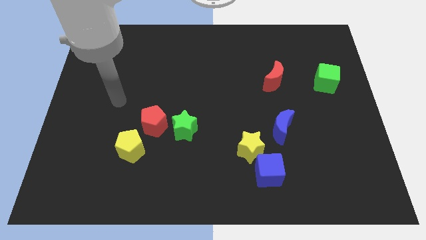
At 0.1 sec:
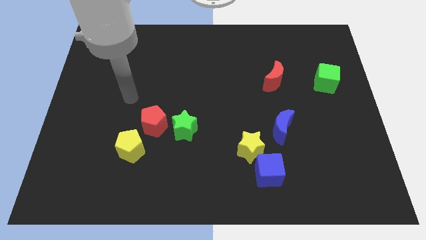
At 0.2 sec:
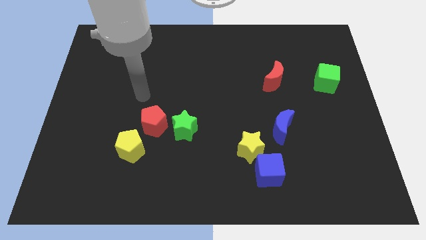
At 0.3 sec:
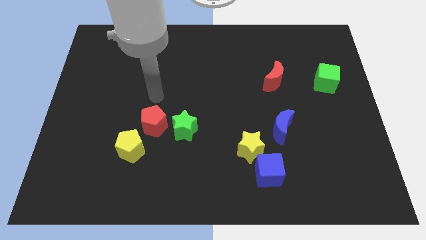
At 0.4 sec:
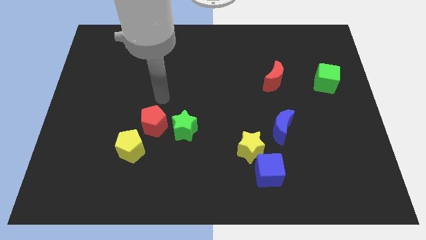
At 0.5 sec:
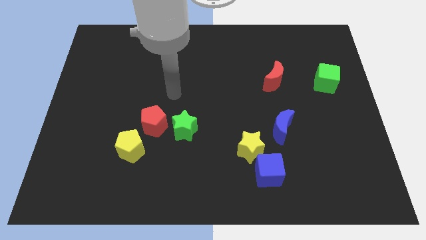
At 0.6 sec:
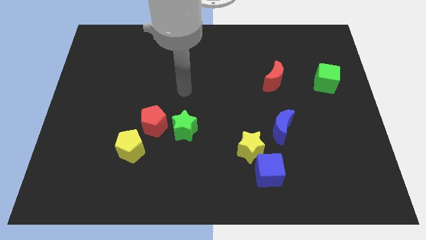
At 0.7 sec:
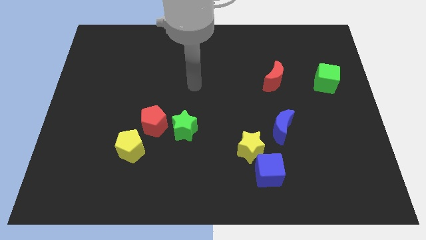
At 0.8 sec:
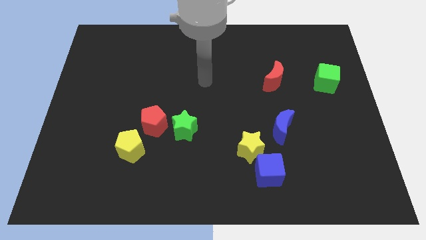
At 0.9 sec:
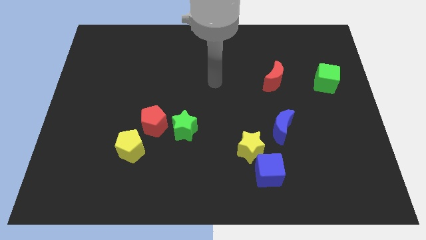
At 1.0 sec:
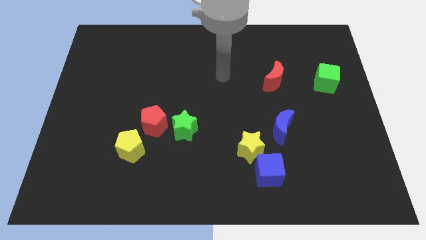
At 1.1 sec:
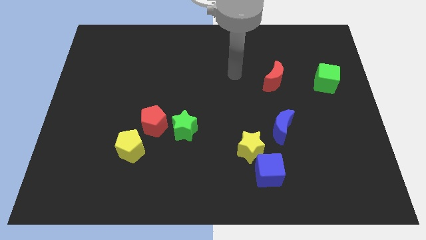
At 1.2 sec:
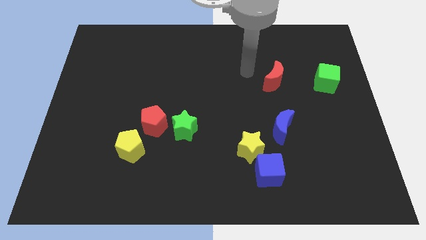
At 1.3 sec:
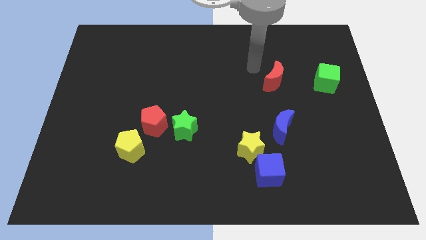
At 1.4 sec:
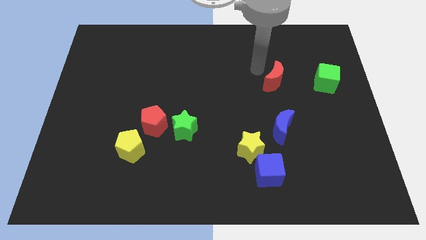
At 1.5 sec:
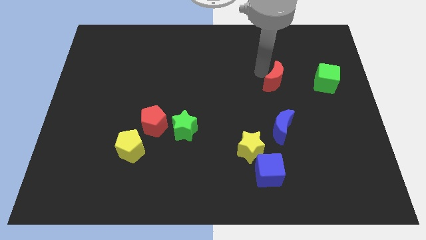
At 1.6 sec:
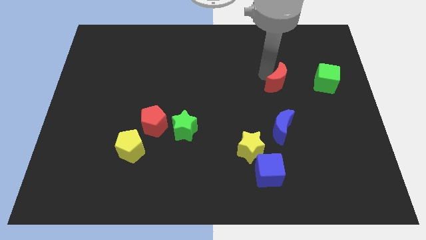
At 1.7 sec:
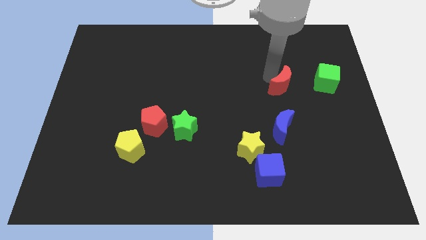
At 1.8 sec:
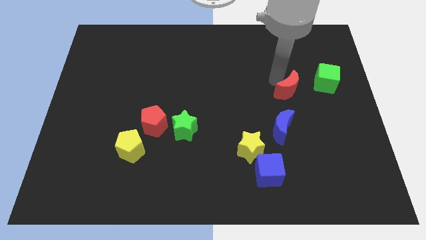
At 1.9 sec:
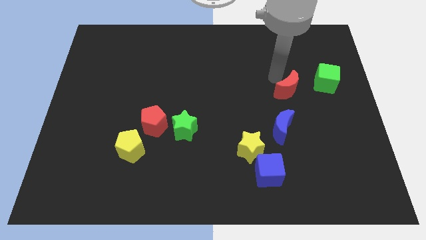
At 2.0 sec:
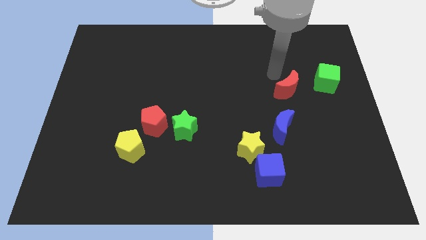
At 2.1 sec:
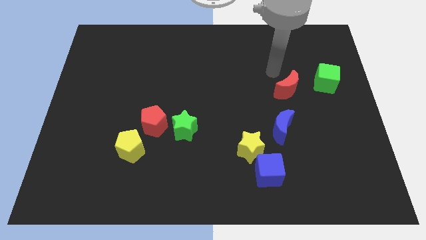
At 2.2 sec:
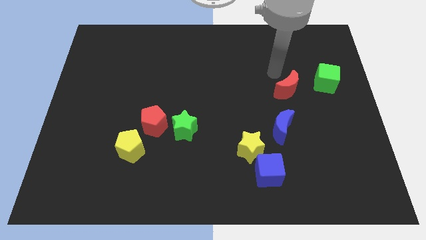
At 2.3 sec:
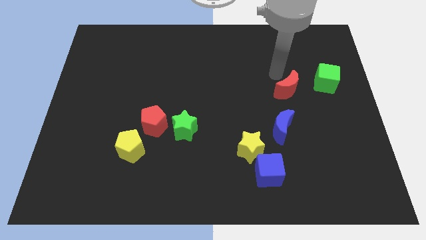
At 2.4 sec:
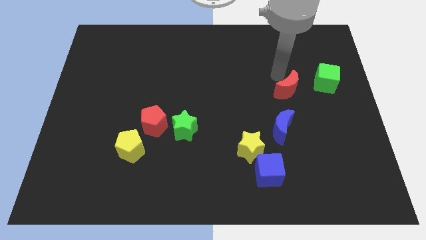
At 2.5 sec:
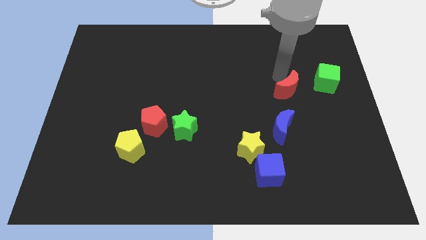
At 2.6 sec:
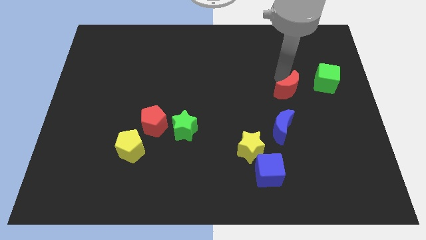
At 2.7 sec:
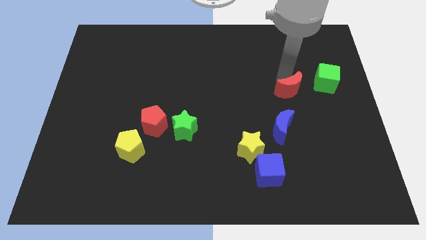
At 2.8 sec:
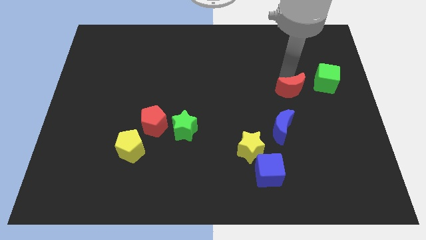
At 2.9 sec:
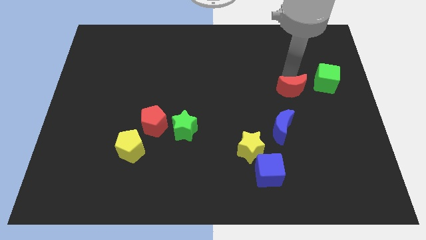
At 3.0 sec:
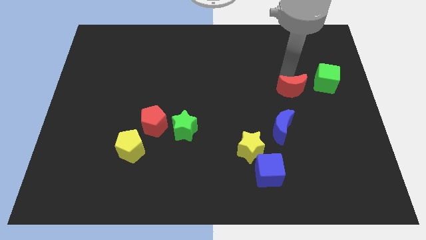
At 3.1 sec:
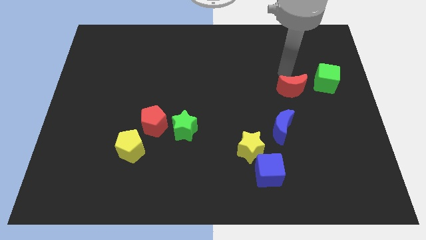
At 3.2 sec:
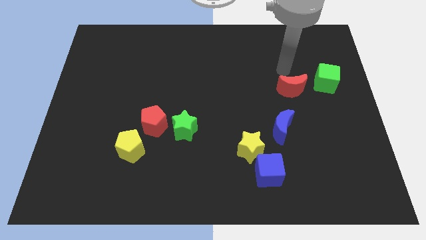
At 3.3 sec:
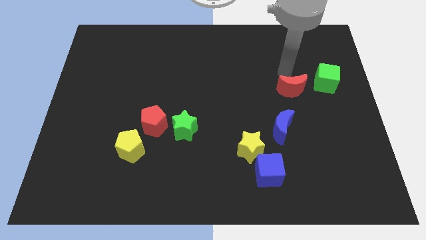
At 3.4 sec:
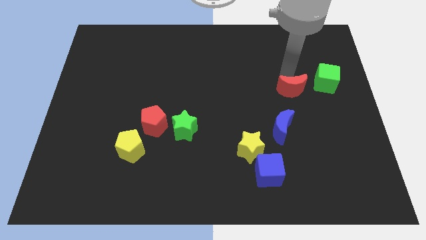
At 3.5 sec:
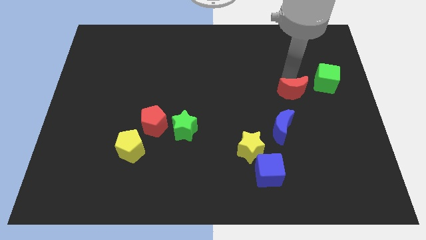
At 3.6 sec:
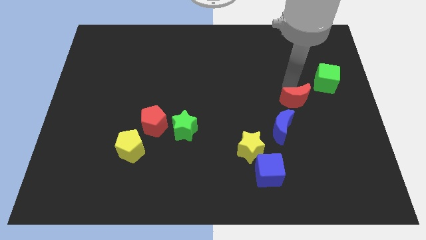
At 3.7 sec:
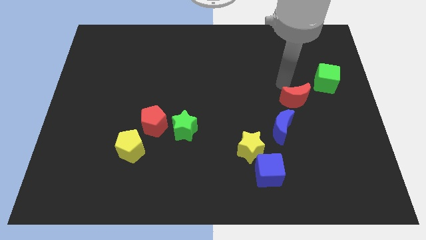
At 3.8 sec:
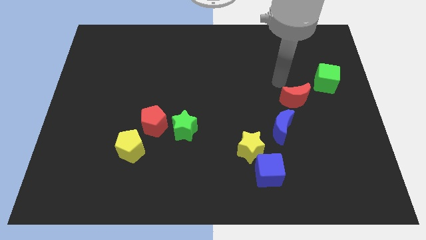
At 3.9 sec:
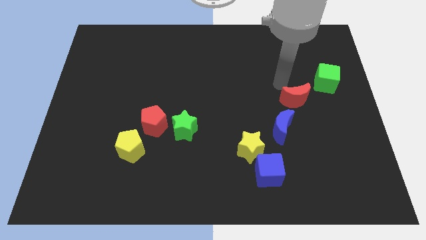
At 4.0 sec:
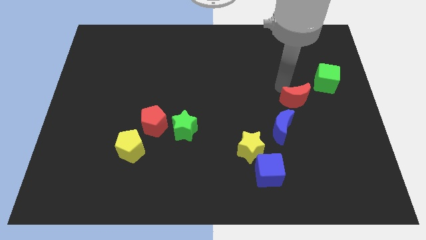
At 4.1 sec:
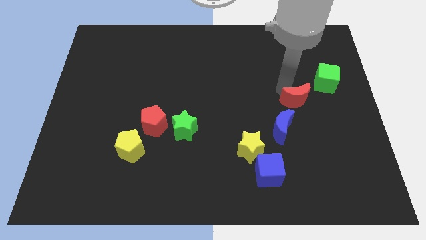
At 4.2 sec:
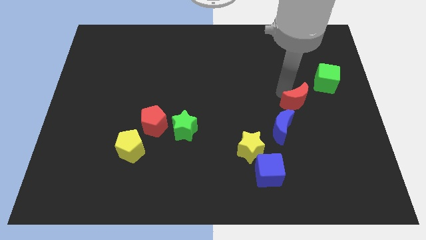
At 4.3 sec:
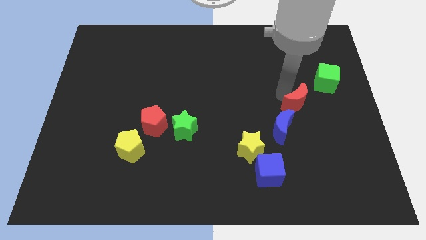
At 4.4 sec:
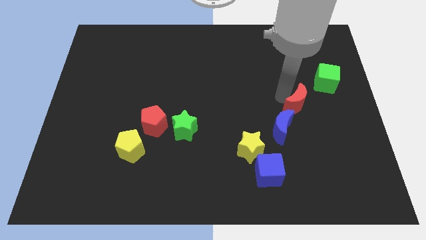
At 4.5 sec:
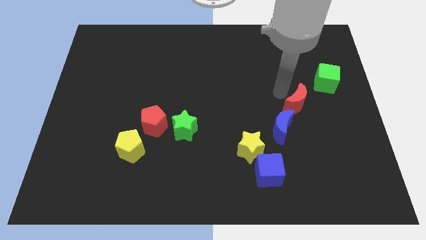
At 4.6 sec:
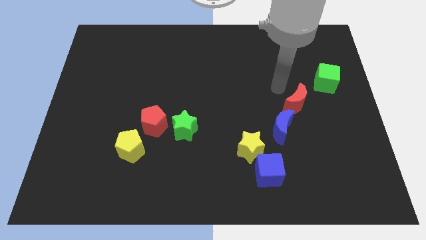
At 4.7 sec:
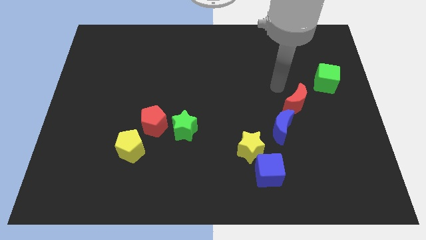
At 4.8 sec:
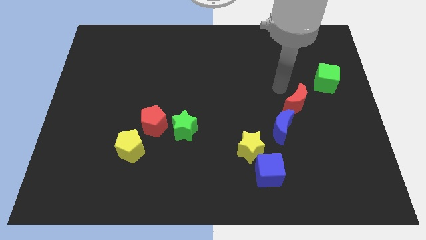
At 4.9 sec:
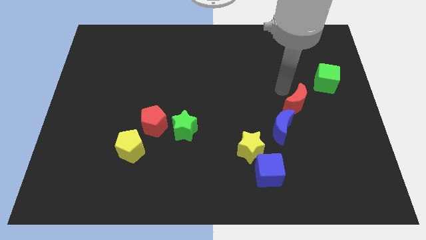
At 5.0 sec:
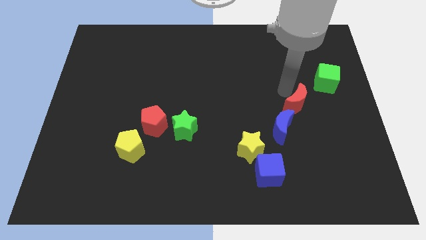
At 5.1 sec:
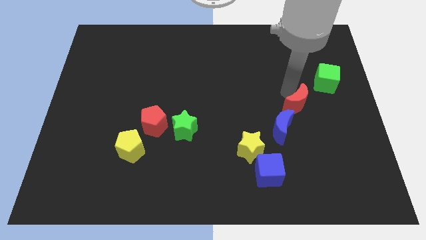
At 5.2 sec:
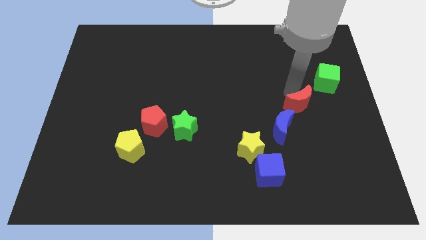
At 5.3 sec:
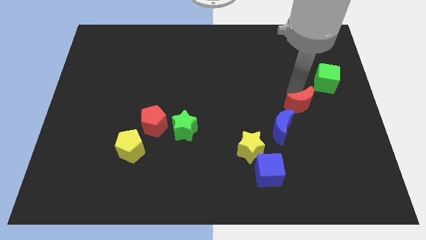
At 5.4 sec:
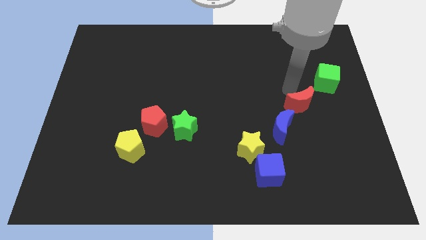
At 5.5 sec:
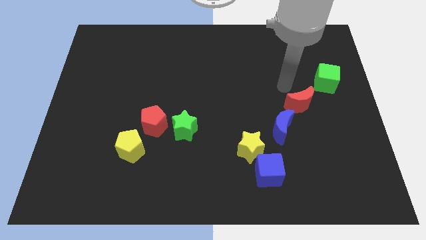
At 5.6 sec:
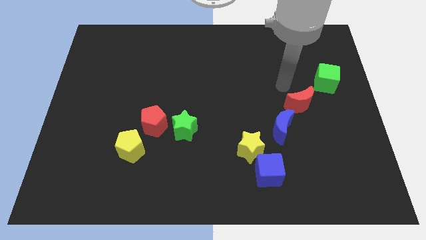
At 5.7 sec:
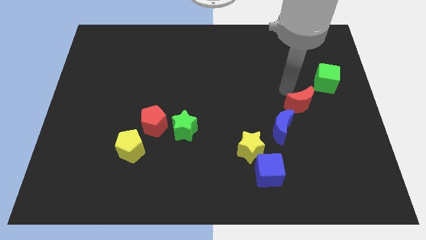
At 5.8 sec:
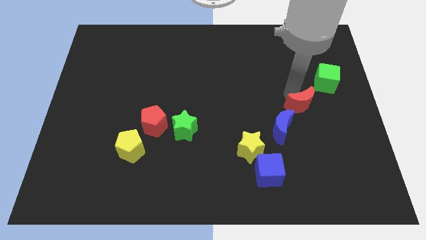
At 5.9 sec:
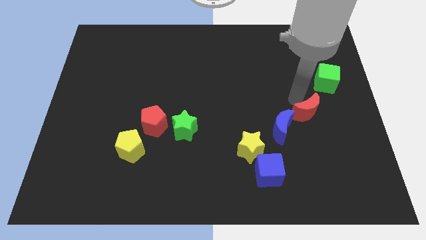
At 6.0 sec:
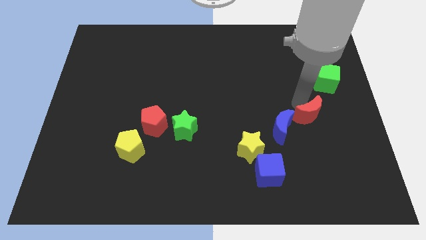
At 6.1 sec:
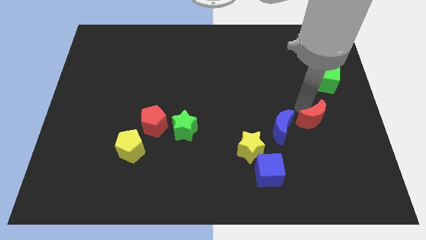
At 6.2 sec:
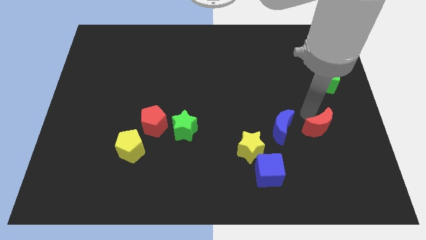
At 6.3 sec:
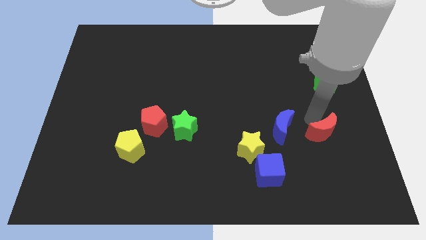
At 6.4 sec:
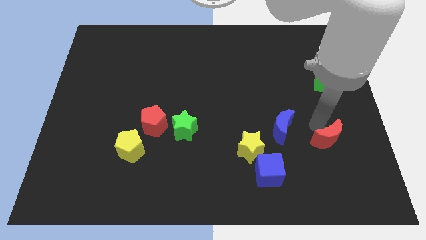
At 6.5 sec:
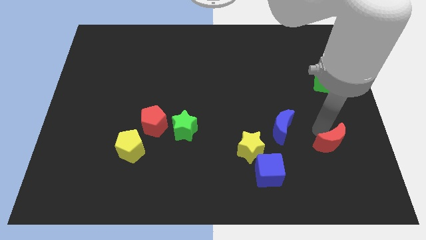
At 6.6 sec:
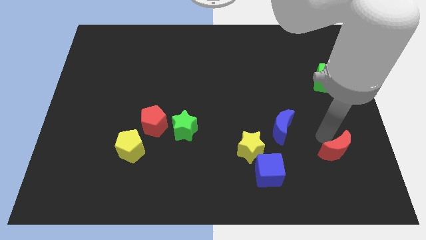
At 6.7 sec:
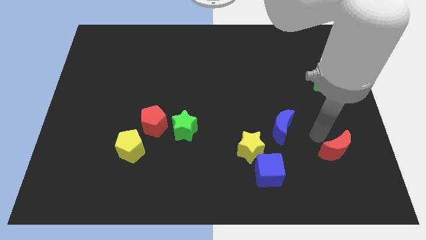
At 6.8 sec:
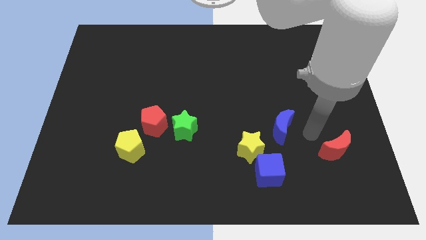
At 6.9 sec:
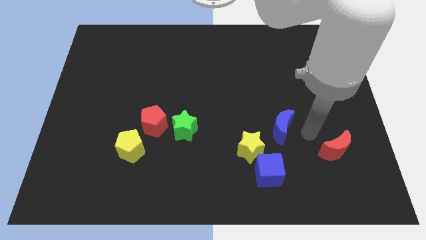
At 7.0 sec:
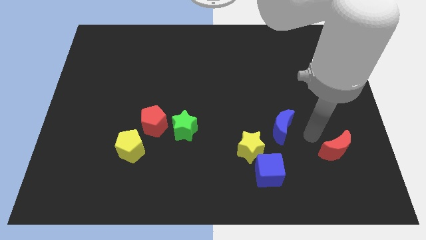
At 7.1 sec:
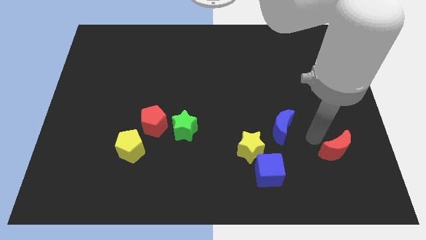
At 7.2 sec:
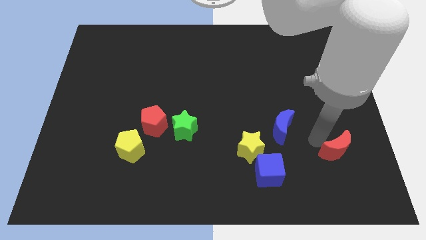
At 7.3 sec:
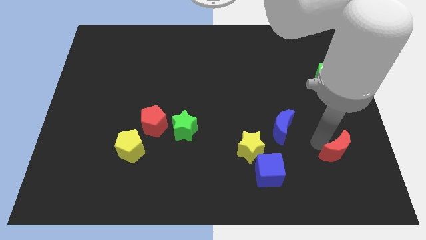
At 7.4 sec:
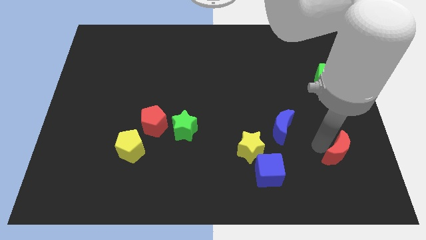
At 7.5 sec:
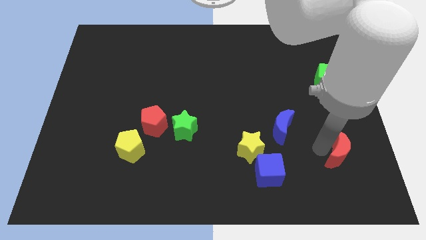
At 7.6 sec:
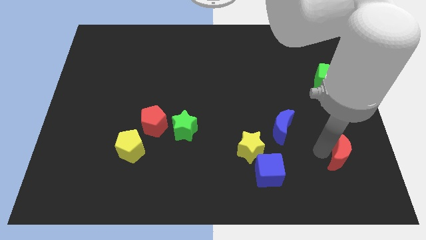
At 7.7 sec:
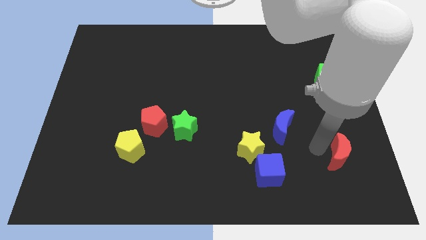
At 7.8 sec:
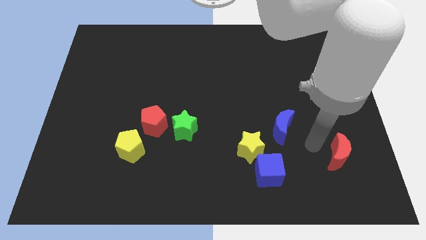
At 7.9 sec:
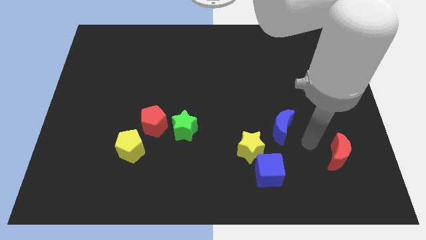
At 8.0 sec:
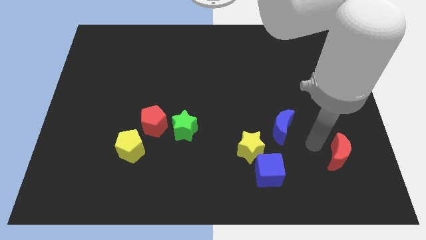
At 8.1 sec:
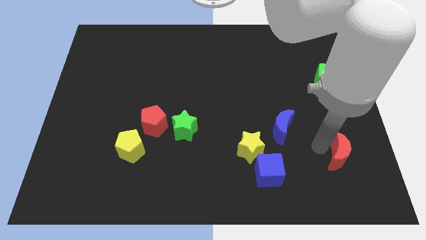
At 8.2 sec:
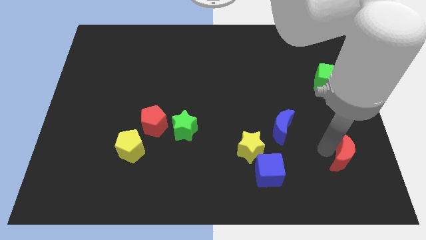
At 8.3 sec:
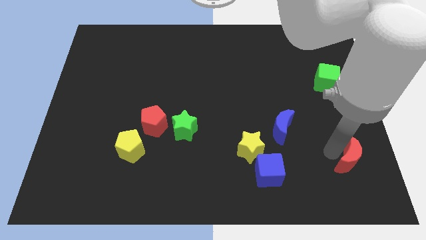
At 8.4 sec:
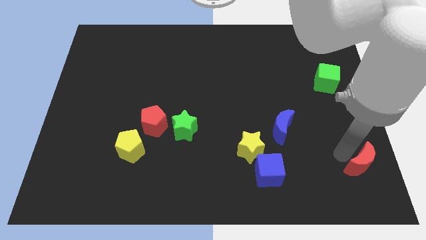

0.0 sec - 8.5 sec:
move the red moon to the bottom right corner
